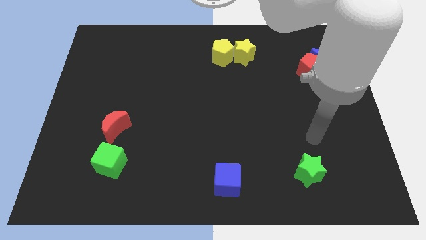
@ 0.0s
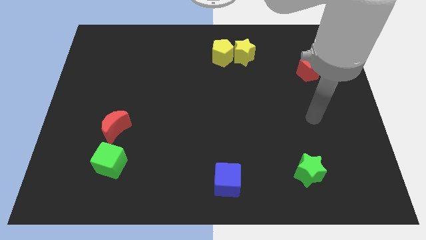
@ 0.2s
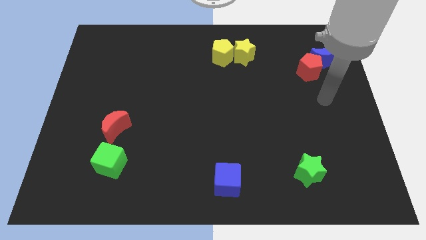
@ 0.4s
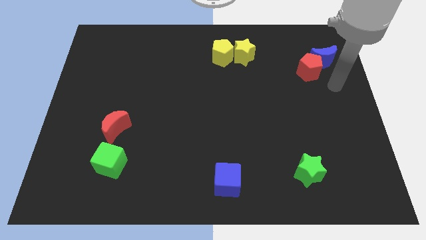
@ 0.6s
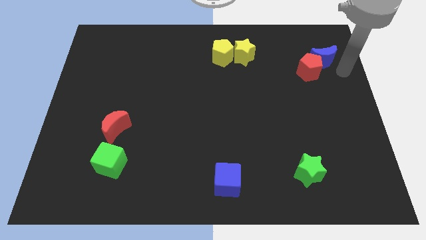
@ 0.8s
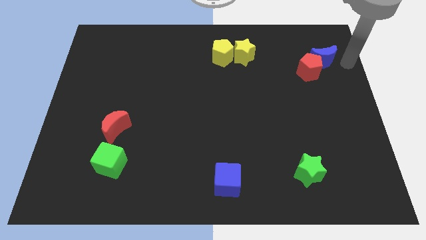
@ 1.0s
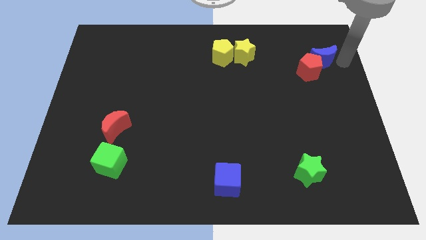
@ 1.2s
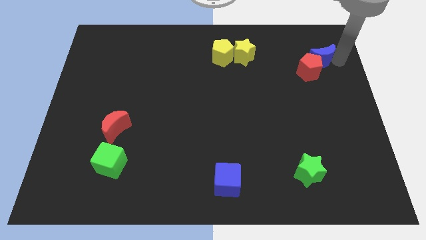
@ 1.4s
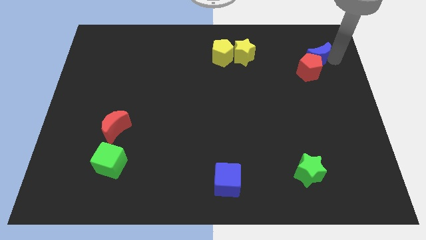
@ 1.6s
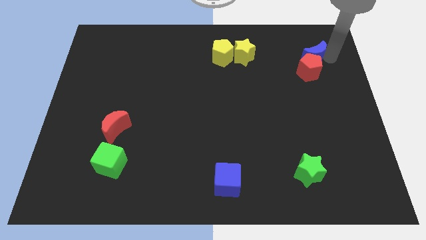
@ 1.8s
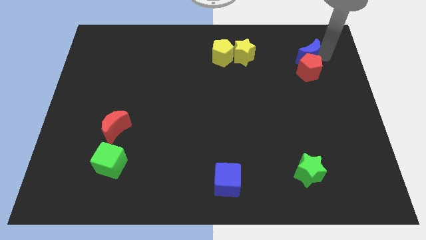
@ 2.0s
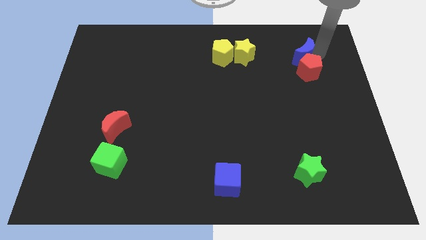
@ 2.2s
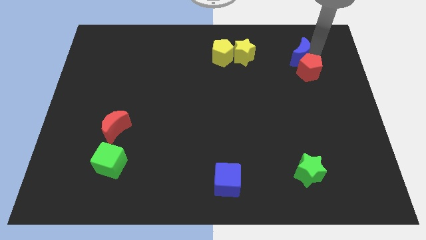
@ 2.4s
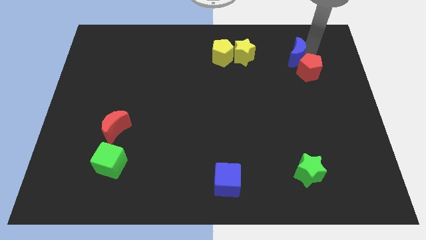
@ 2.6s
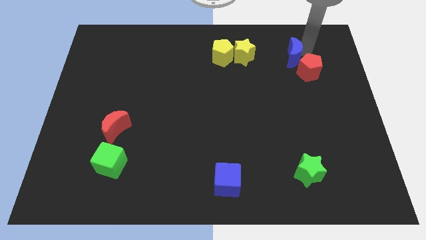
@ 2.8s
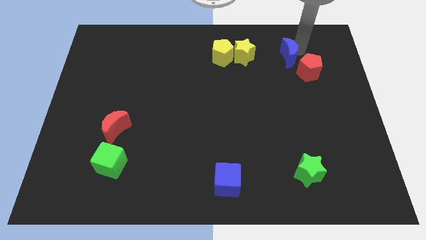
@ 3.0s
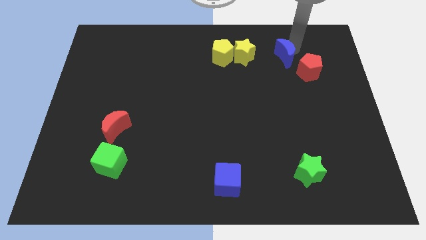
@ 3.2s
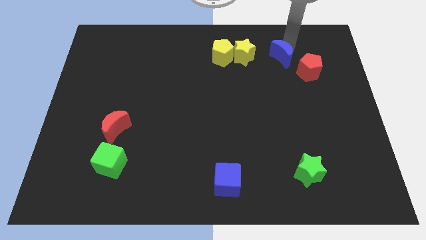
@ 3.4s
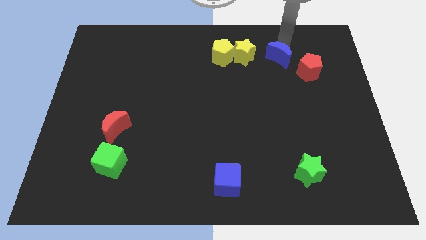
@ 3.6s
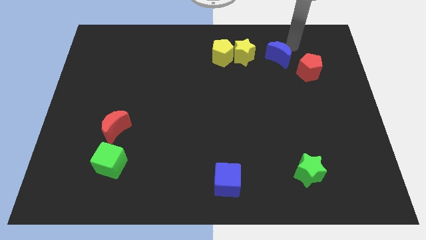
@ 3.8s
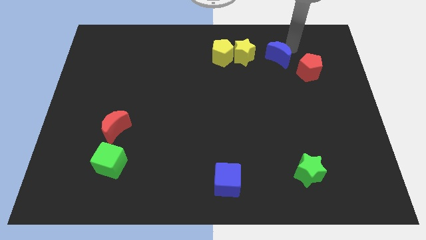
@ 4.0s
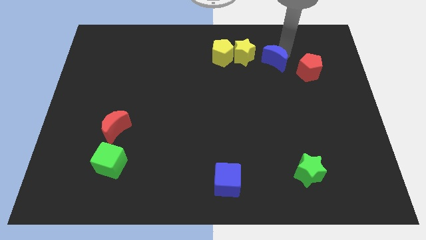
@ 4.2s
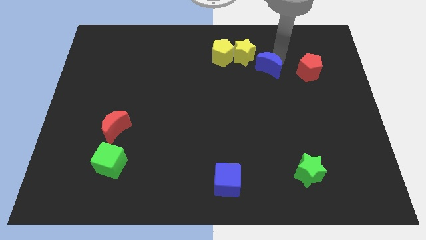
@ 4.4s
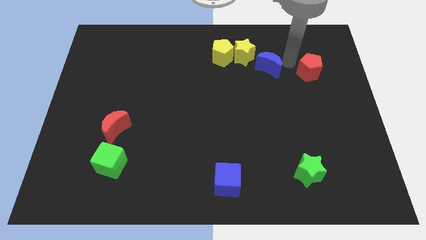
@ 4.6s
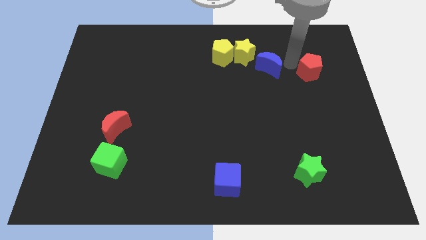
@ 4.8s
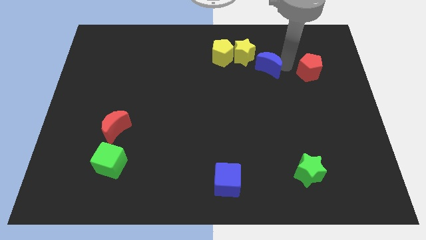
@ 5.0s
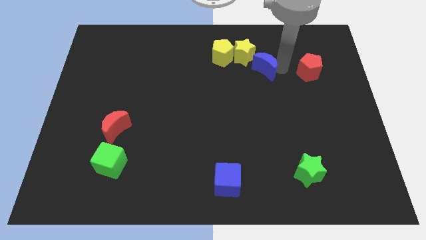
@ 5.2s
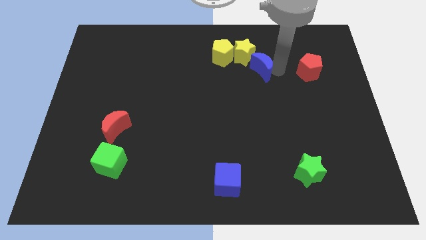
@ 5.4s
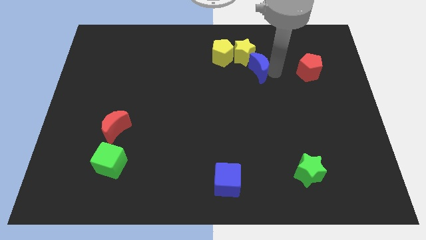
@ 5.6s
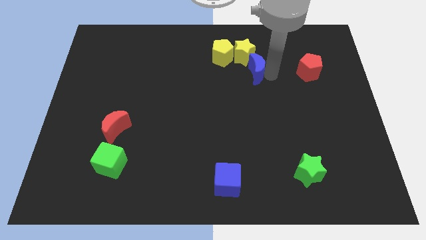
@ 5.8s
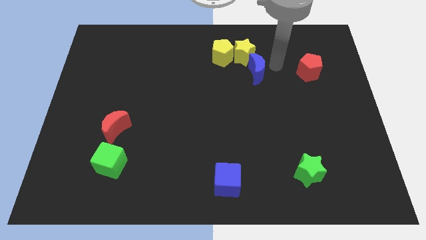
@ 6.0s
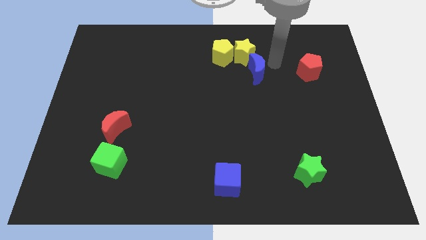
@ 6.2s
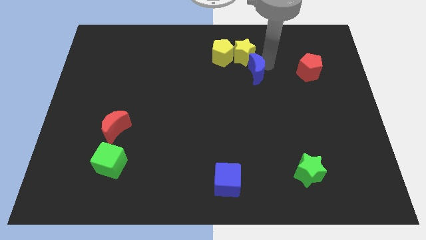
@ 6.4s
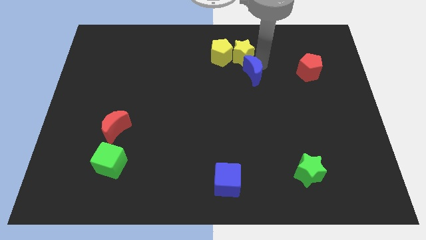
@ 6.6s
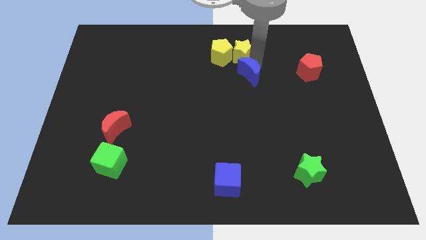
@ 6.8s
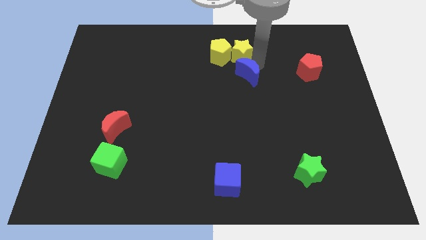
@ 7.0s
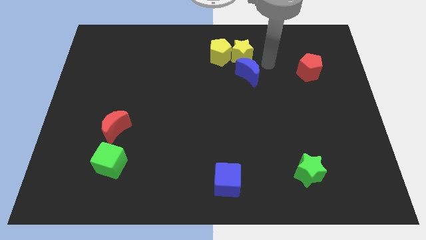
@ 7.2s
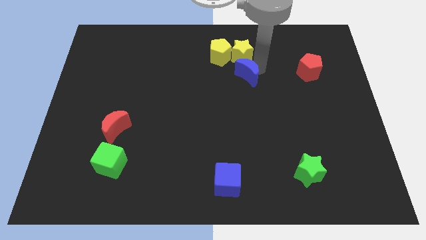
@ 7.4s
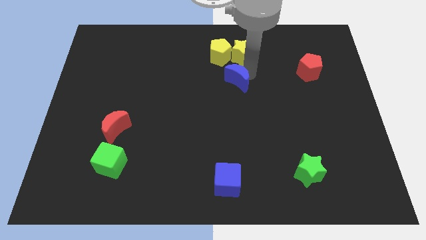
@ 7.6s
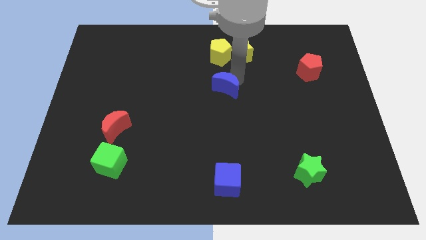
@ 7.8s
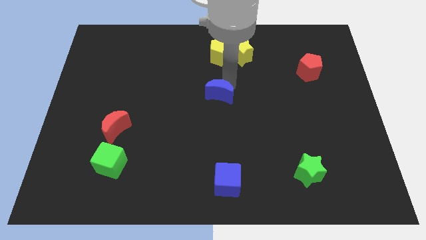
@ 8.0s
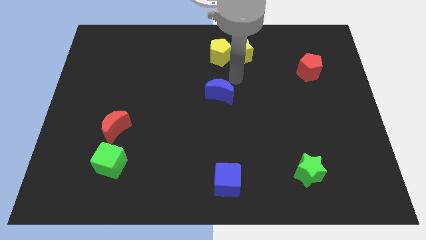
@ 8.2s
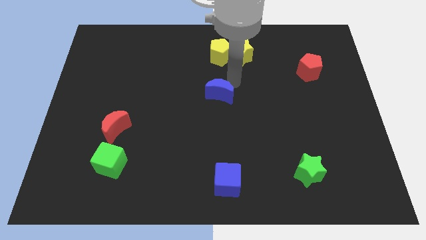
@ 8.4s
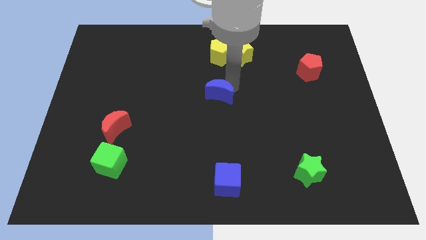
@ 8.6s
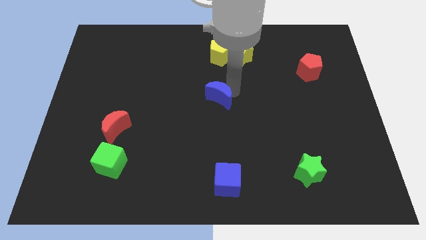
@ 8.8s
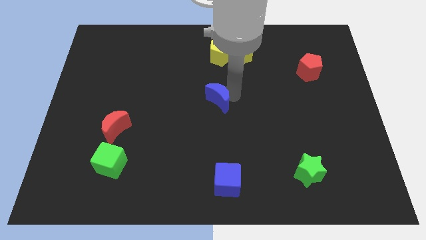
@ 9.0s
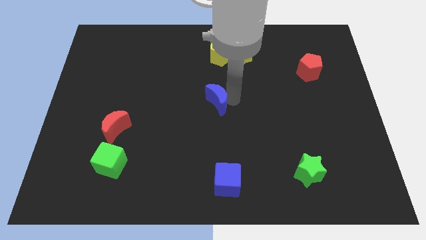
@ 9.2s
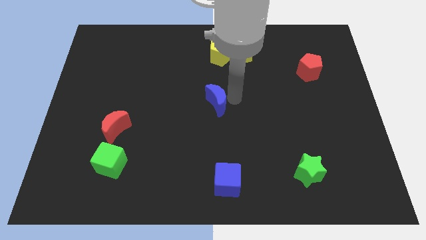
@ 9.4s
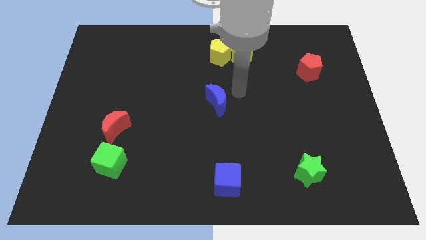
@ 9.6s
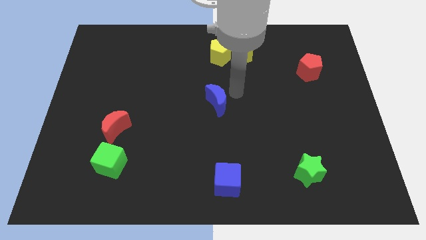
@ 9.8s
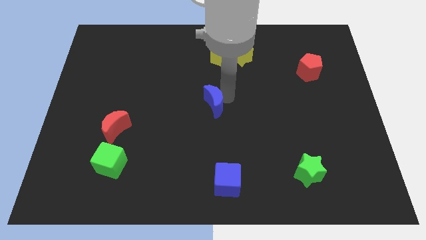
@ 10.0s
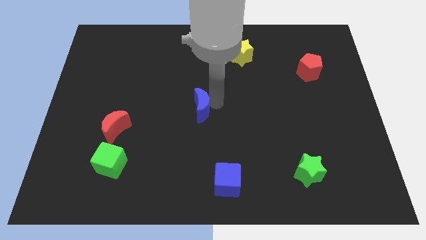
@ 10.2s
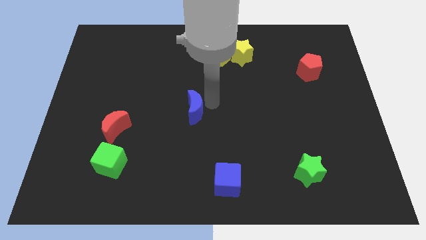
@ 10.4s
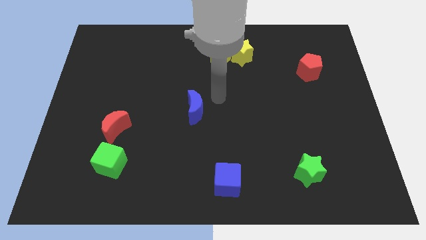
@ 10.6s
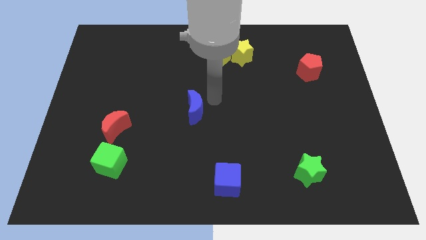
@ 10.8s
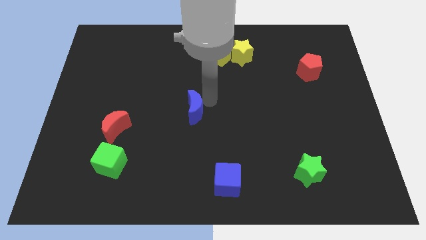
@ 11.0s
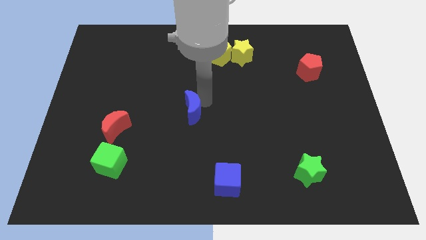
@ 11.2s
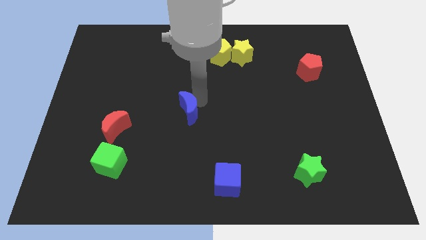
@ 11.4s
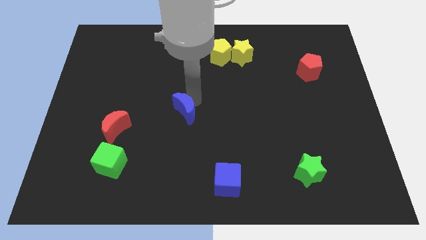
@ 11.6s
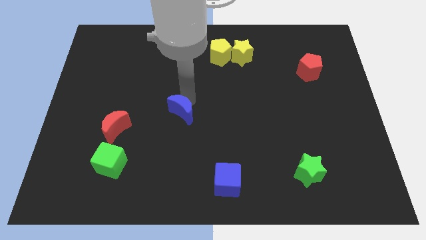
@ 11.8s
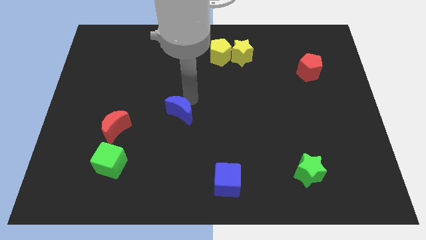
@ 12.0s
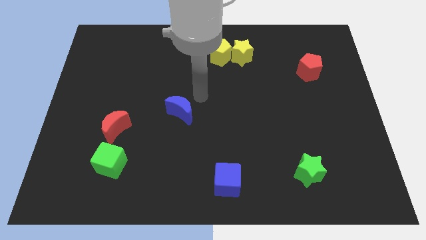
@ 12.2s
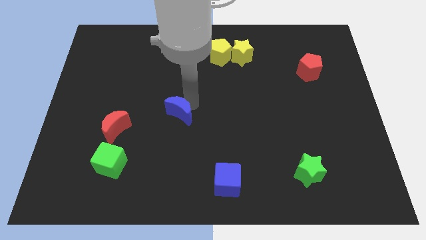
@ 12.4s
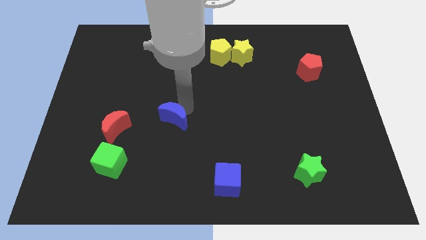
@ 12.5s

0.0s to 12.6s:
push the blue moon right of the red moon
